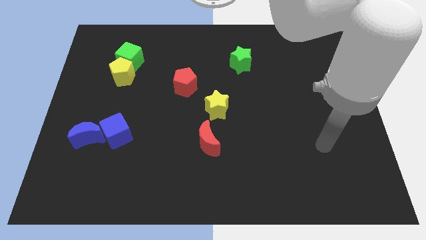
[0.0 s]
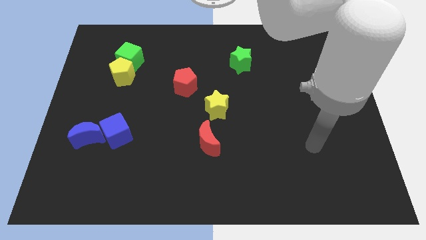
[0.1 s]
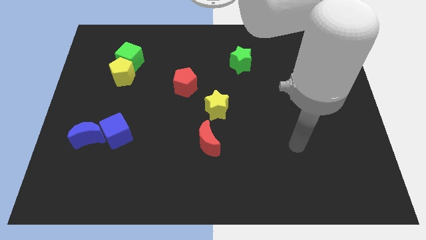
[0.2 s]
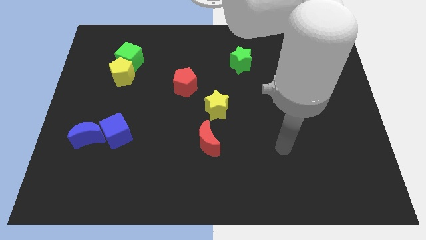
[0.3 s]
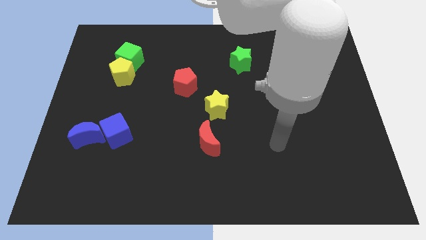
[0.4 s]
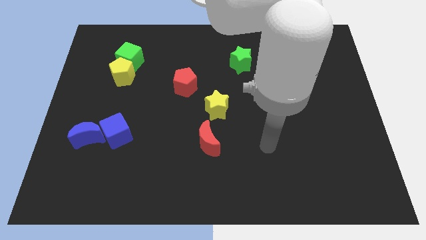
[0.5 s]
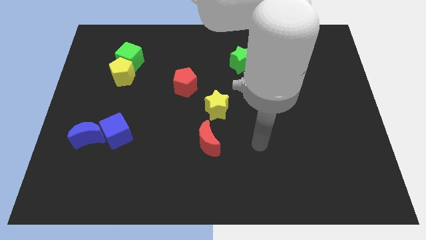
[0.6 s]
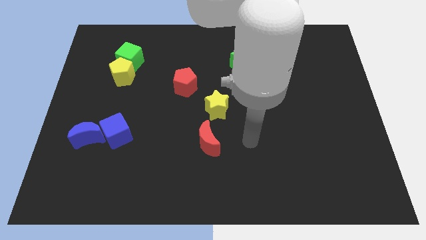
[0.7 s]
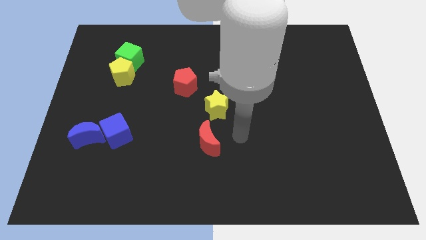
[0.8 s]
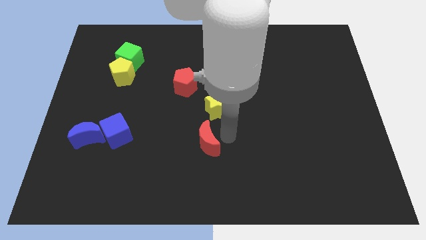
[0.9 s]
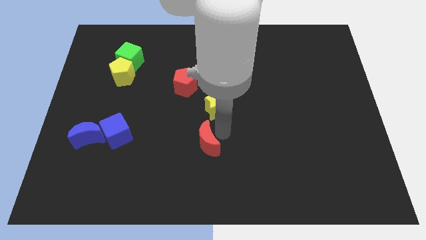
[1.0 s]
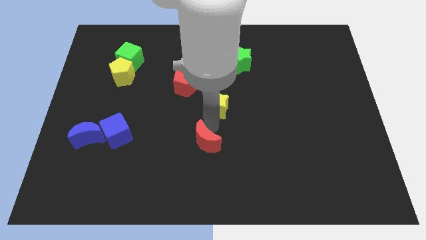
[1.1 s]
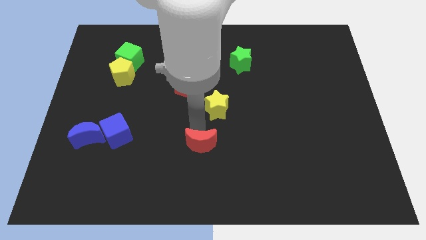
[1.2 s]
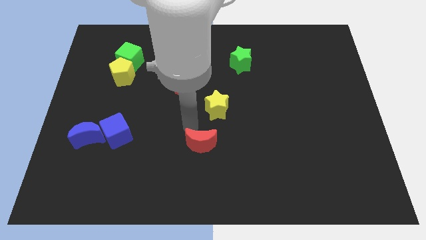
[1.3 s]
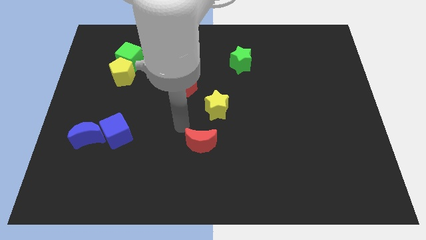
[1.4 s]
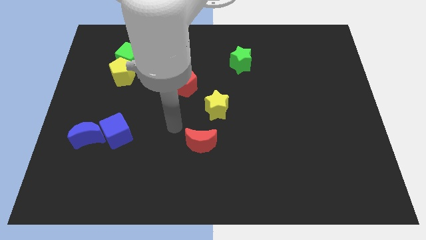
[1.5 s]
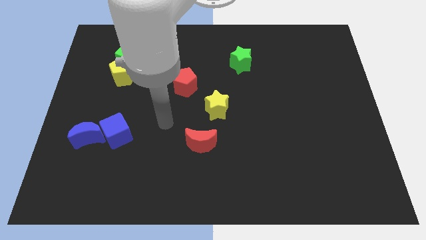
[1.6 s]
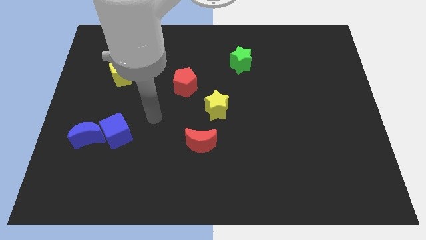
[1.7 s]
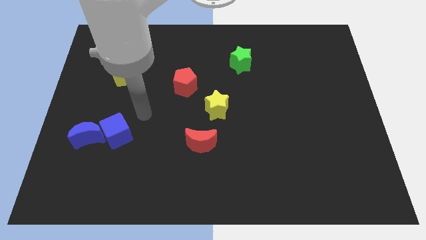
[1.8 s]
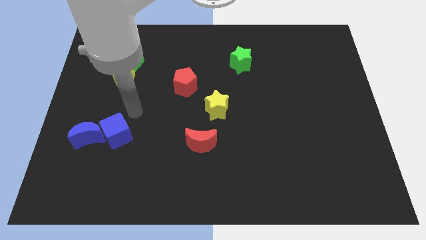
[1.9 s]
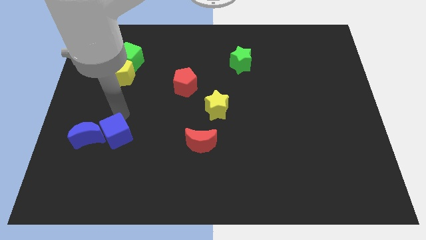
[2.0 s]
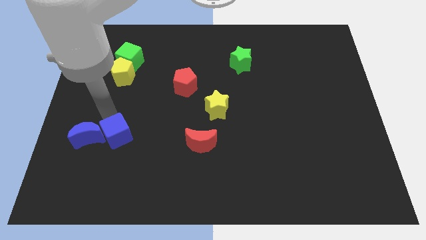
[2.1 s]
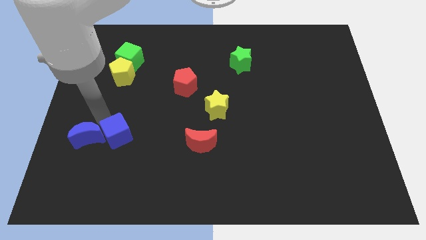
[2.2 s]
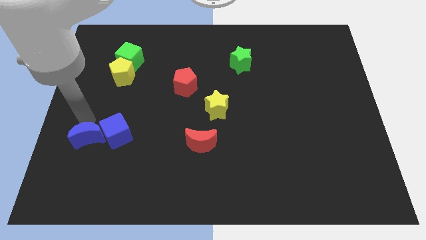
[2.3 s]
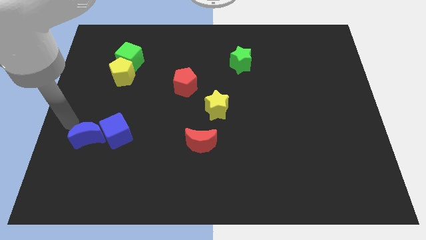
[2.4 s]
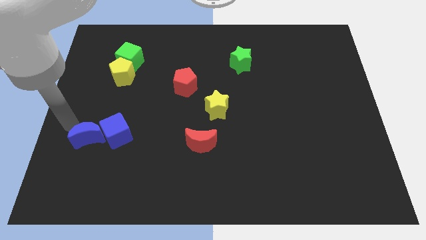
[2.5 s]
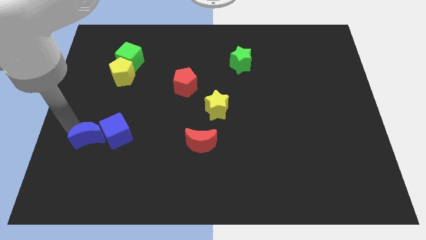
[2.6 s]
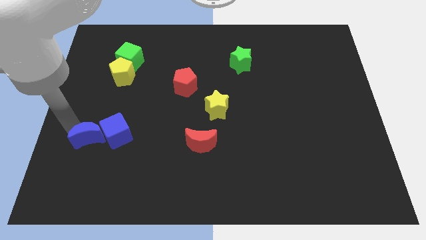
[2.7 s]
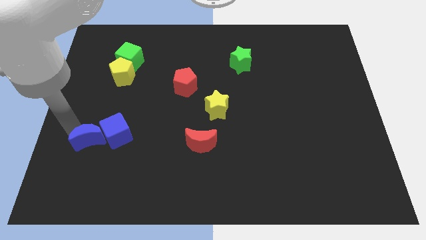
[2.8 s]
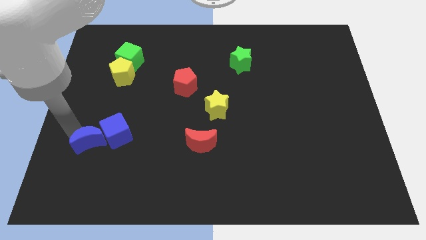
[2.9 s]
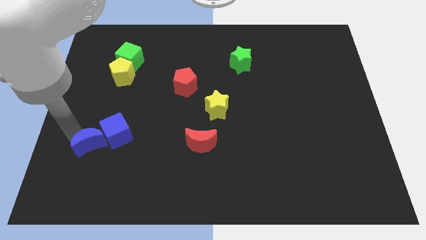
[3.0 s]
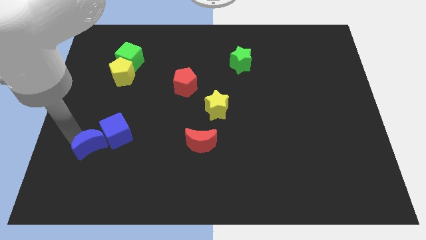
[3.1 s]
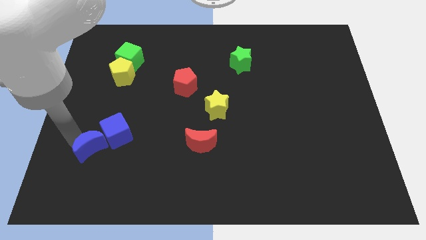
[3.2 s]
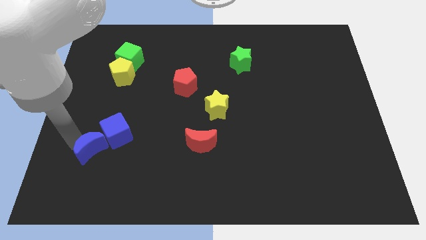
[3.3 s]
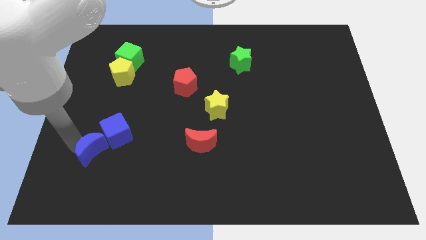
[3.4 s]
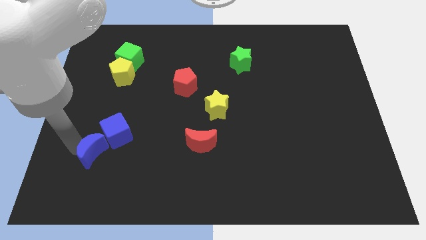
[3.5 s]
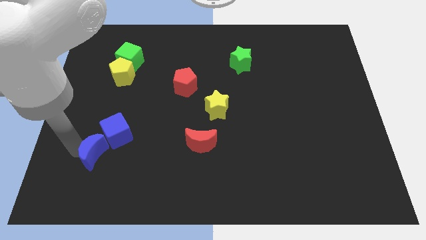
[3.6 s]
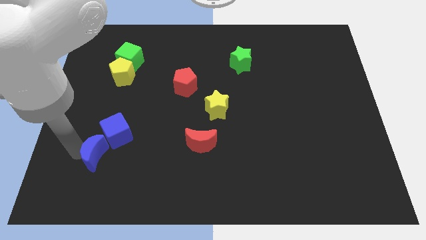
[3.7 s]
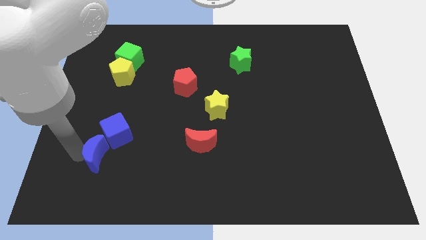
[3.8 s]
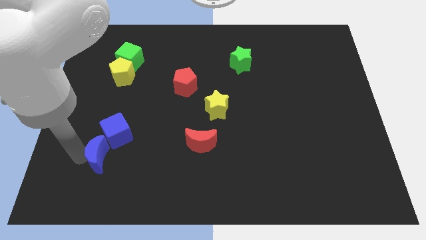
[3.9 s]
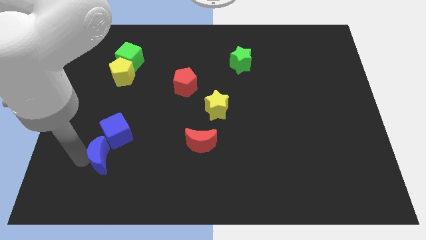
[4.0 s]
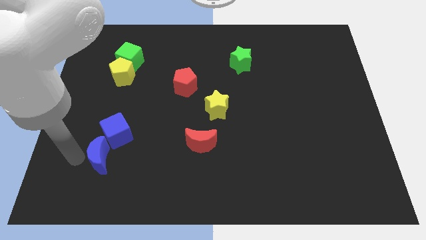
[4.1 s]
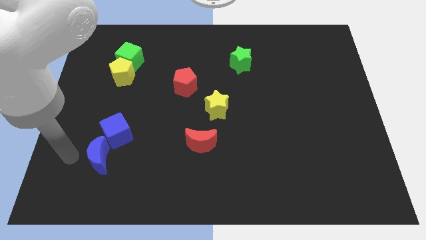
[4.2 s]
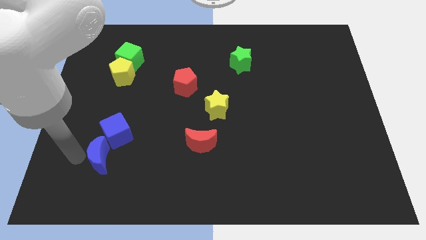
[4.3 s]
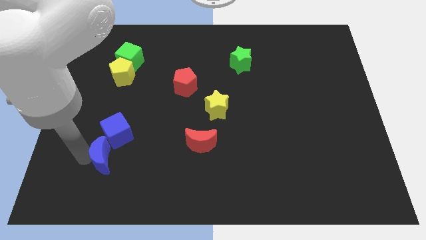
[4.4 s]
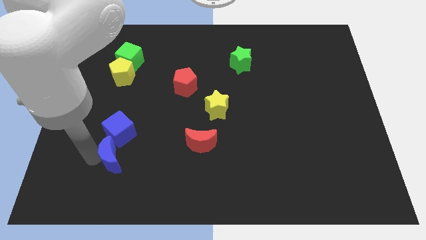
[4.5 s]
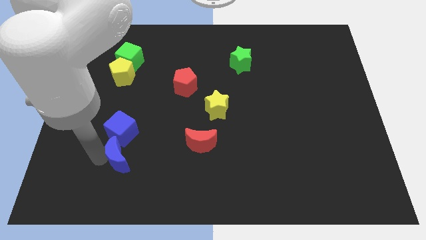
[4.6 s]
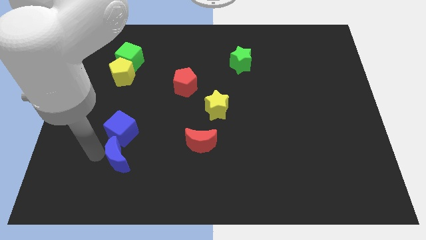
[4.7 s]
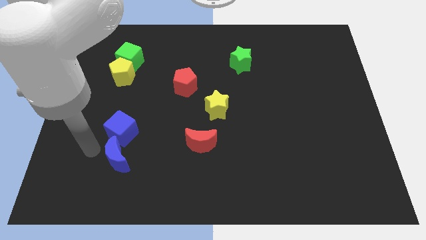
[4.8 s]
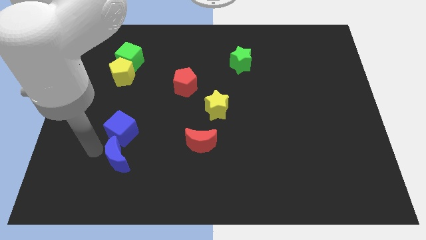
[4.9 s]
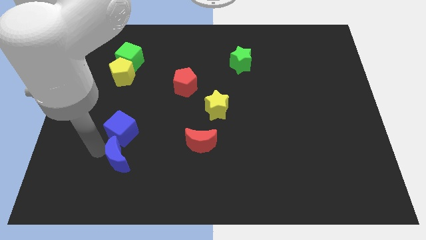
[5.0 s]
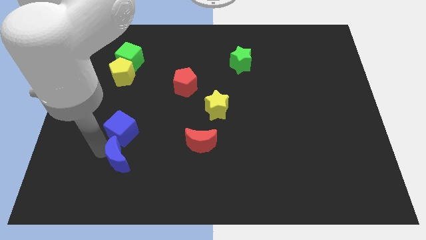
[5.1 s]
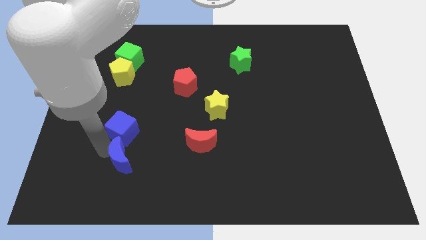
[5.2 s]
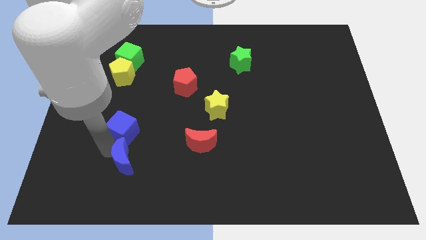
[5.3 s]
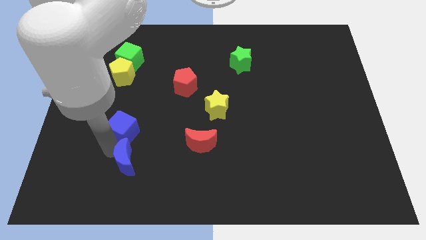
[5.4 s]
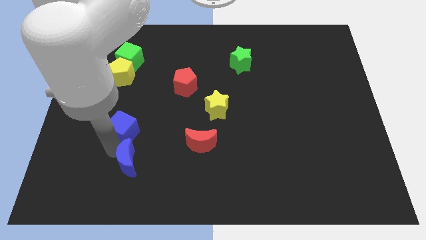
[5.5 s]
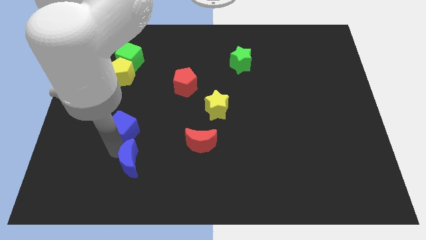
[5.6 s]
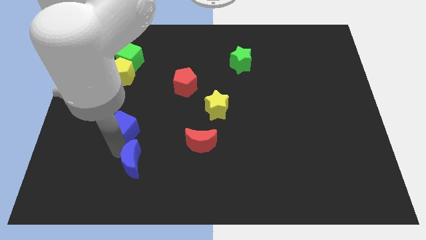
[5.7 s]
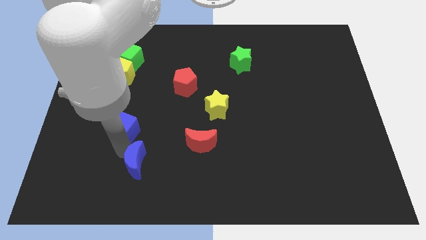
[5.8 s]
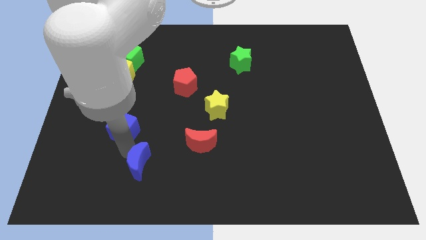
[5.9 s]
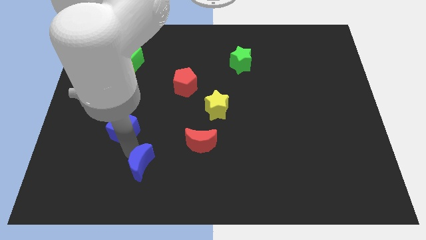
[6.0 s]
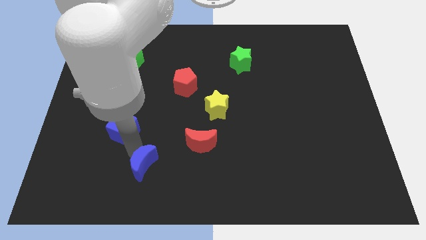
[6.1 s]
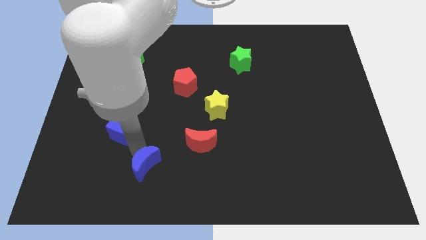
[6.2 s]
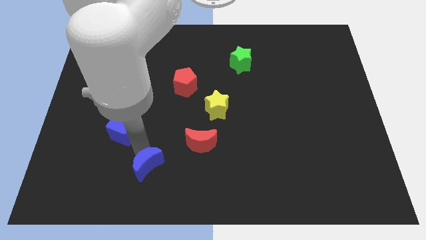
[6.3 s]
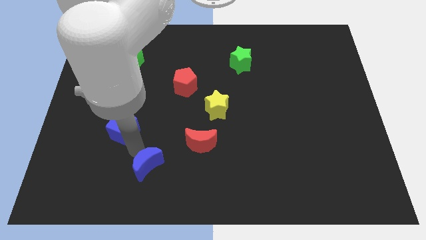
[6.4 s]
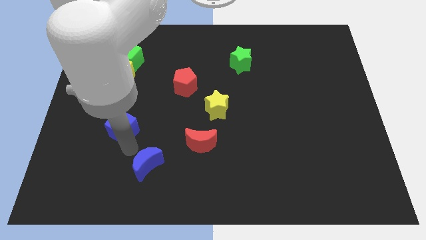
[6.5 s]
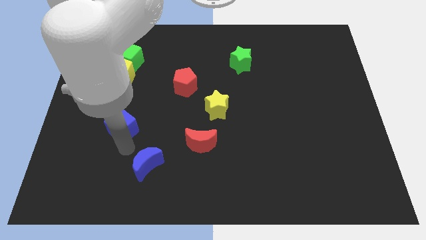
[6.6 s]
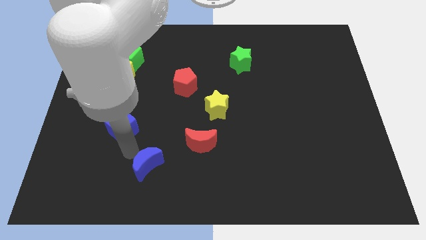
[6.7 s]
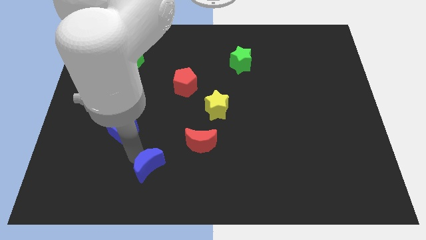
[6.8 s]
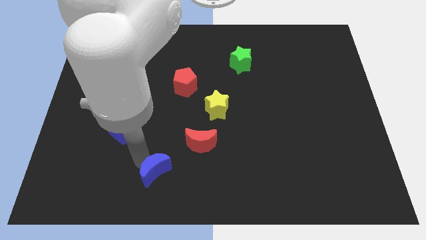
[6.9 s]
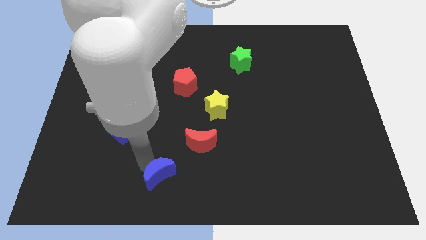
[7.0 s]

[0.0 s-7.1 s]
slide the blue moon to the bottom

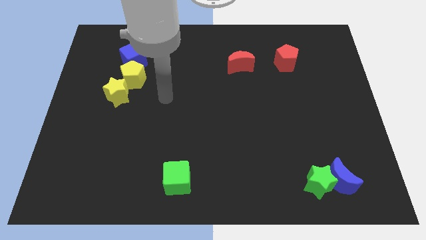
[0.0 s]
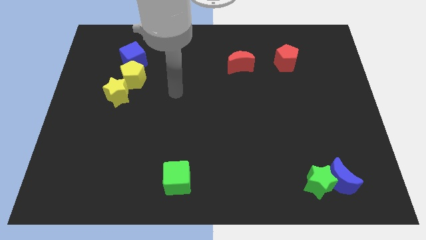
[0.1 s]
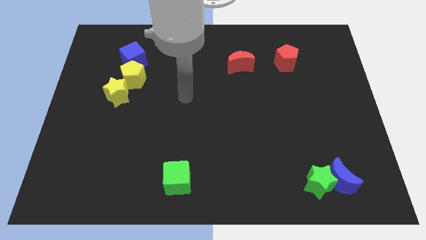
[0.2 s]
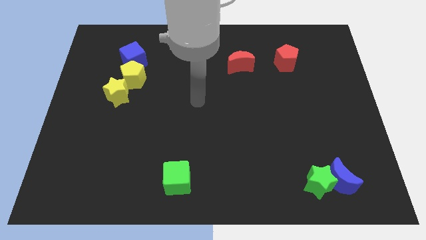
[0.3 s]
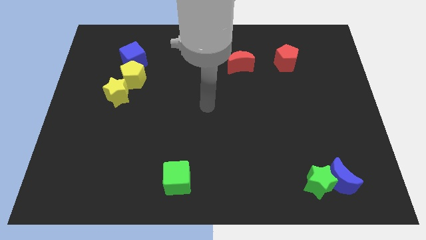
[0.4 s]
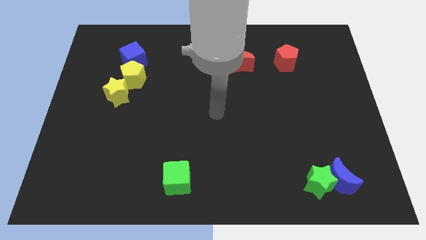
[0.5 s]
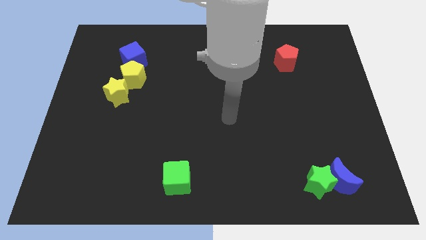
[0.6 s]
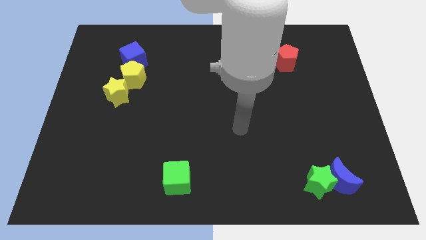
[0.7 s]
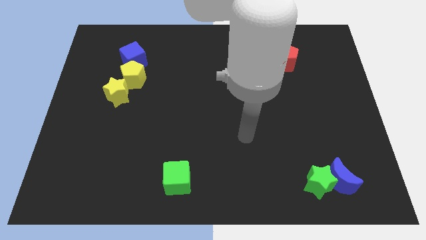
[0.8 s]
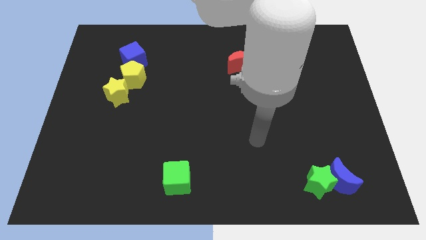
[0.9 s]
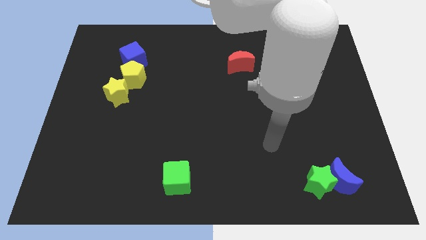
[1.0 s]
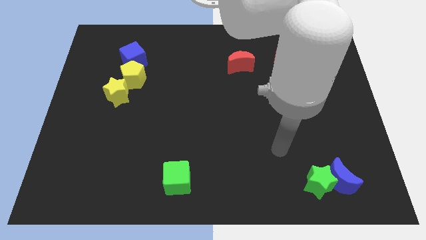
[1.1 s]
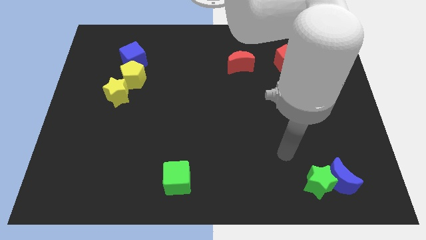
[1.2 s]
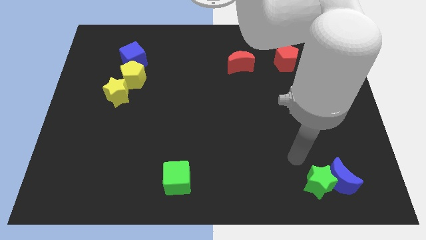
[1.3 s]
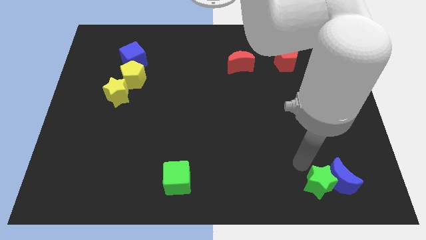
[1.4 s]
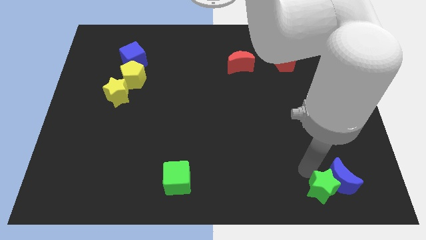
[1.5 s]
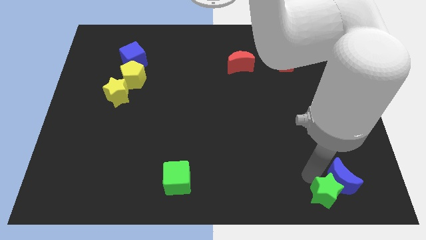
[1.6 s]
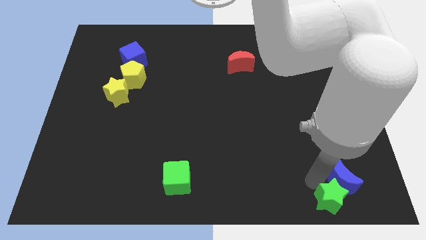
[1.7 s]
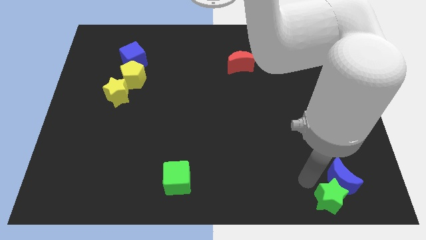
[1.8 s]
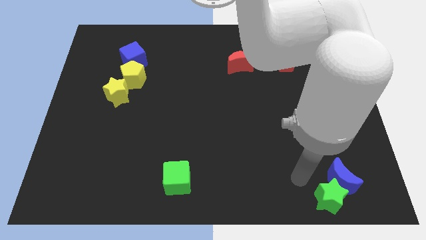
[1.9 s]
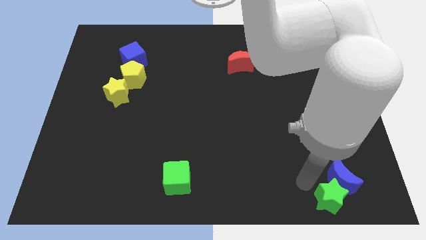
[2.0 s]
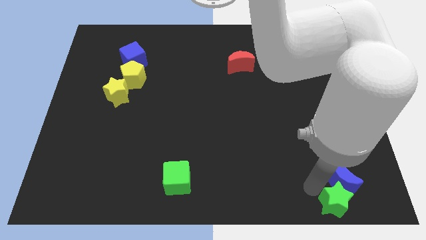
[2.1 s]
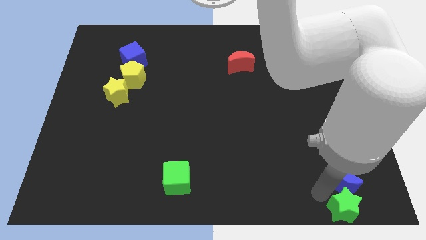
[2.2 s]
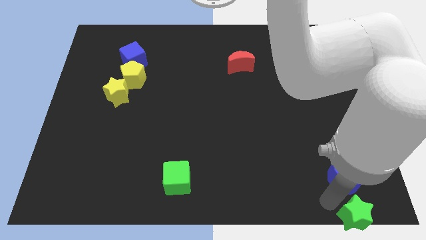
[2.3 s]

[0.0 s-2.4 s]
slide the green star to the bottom right corner
